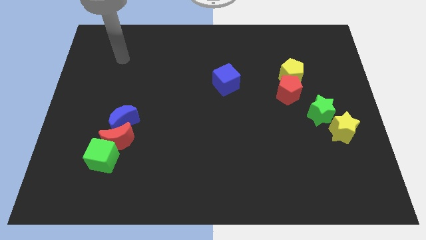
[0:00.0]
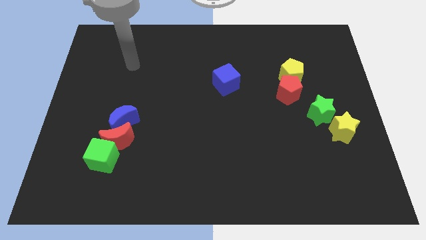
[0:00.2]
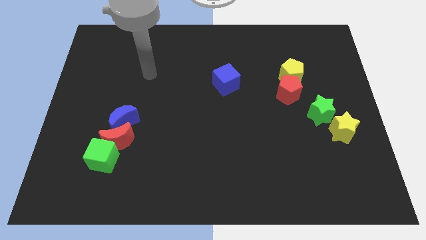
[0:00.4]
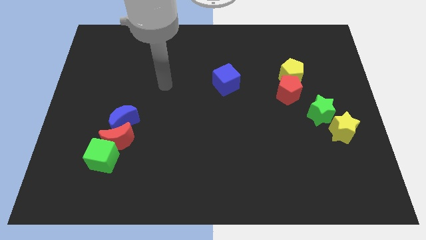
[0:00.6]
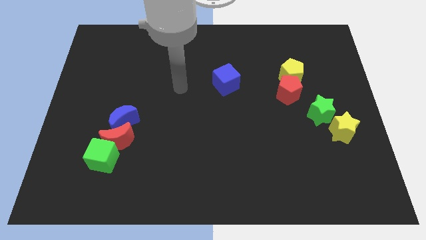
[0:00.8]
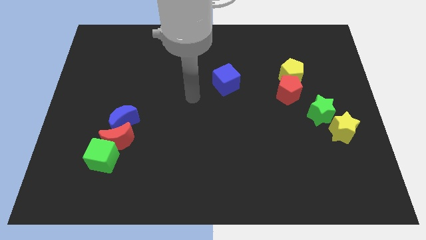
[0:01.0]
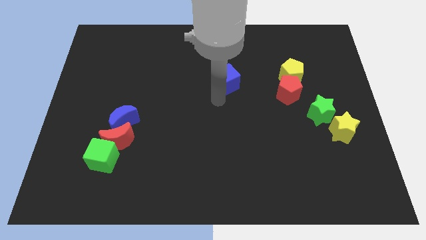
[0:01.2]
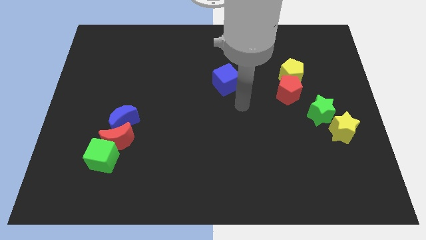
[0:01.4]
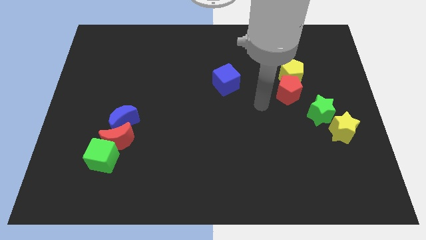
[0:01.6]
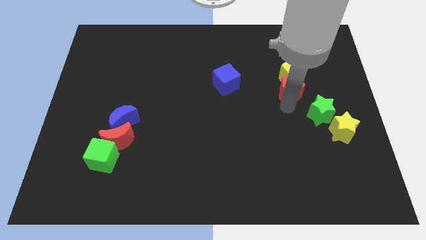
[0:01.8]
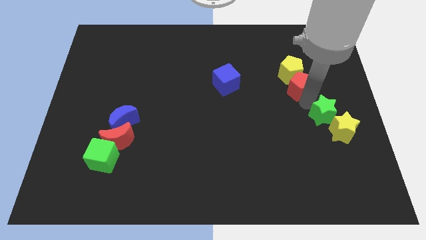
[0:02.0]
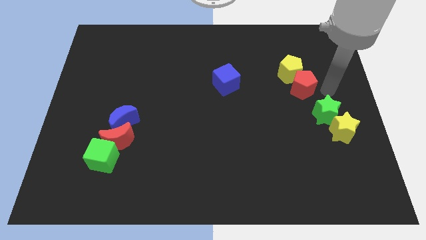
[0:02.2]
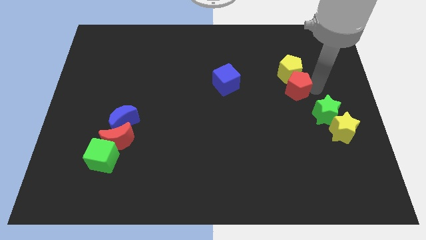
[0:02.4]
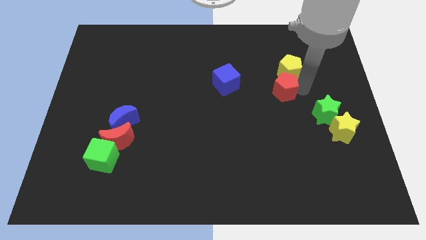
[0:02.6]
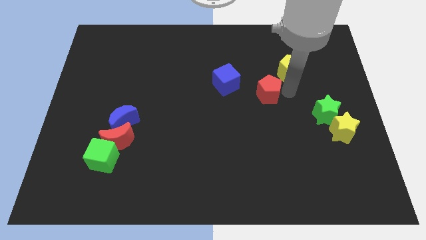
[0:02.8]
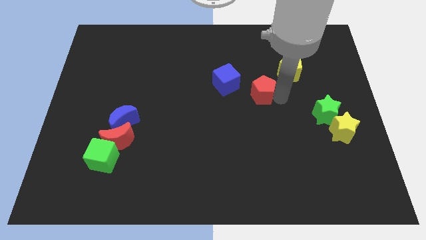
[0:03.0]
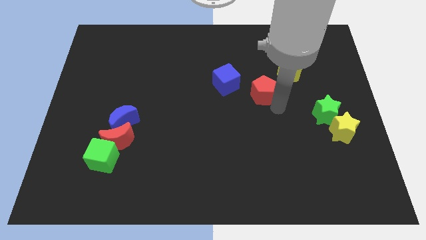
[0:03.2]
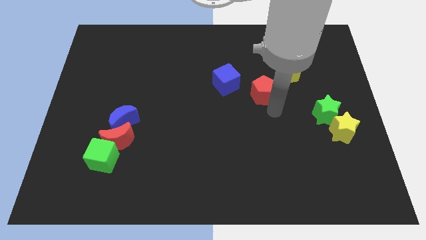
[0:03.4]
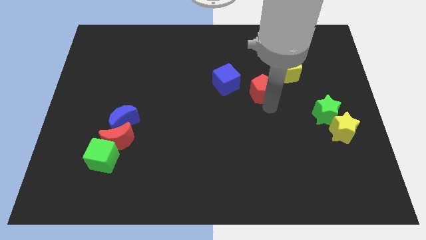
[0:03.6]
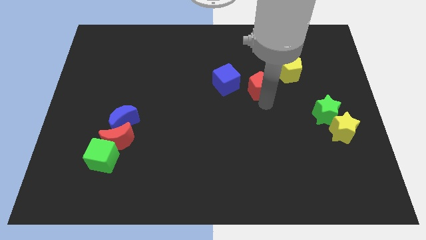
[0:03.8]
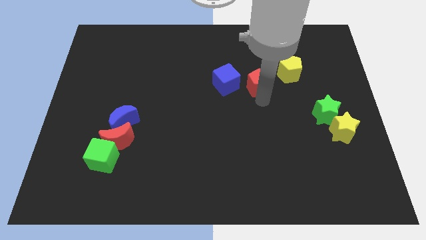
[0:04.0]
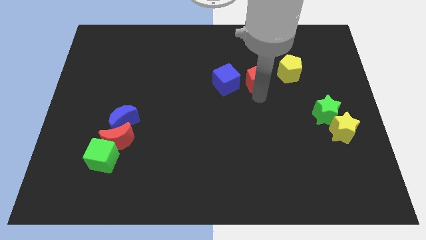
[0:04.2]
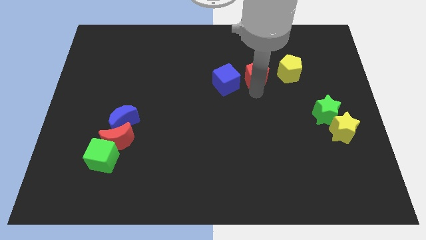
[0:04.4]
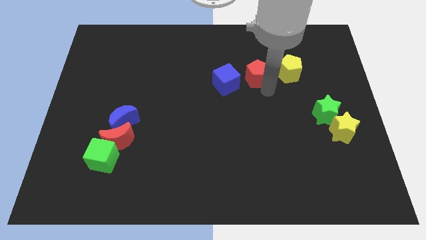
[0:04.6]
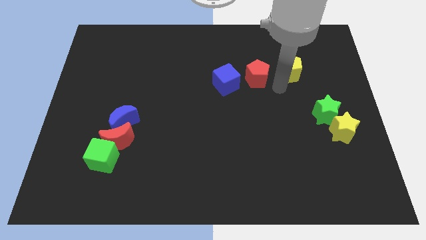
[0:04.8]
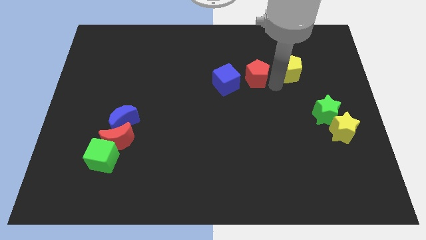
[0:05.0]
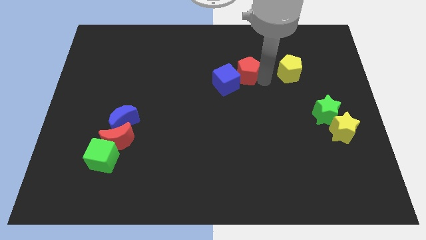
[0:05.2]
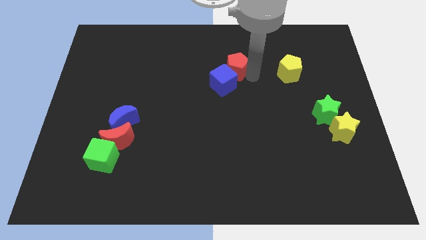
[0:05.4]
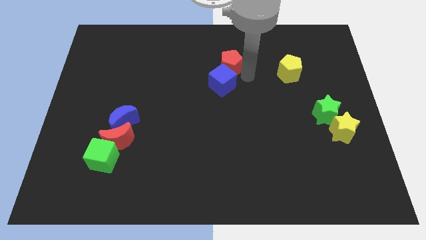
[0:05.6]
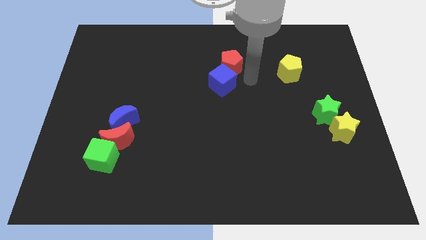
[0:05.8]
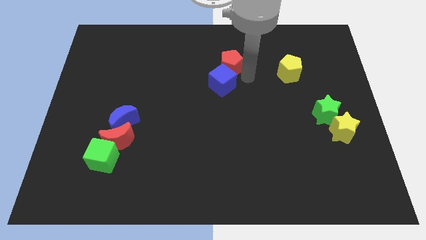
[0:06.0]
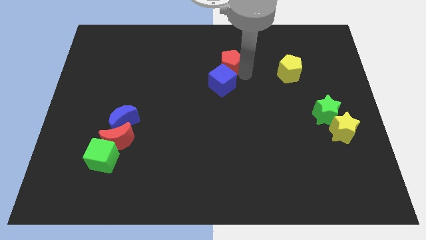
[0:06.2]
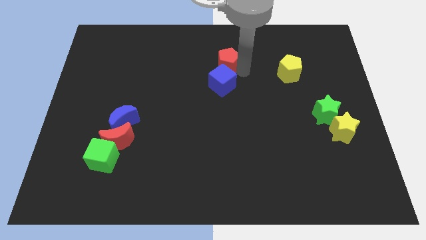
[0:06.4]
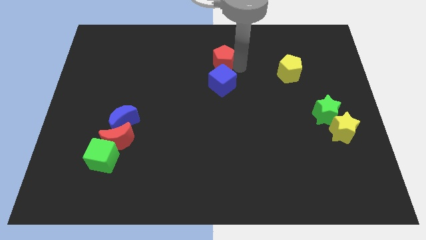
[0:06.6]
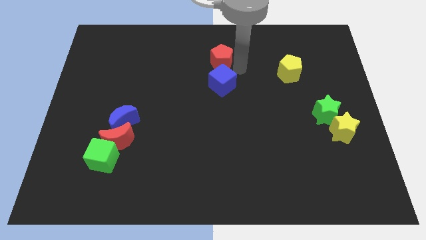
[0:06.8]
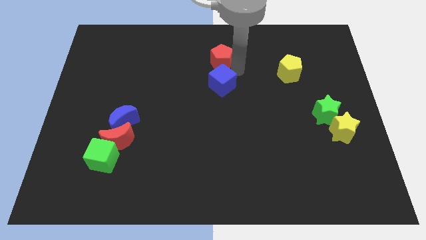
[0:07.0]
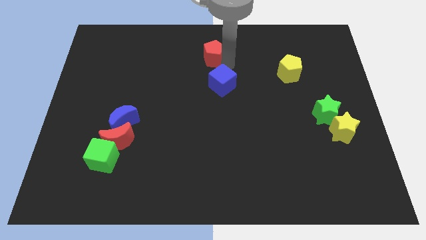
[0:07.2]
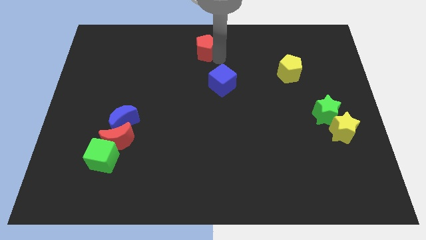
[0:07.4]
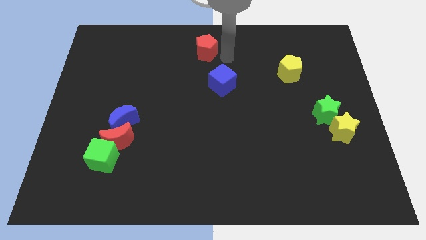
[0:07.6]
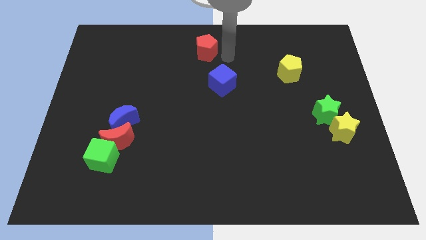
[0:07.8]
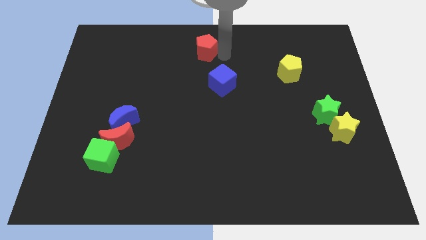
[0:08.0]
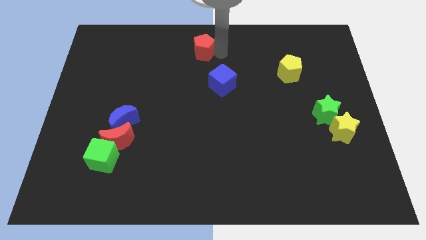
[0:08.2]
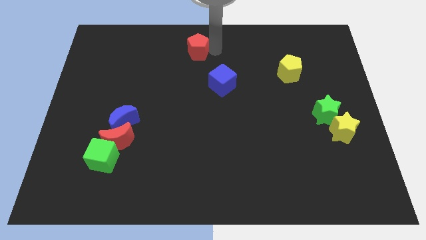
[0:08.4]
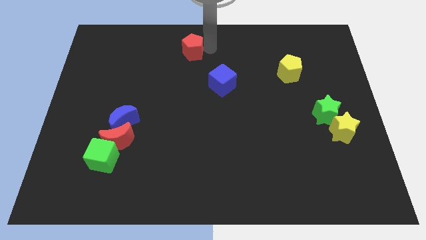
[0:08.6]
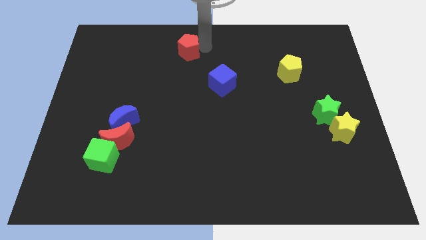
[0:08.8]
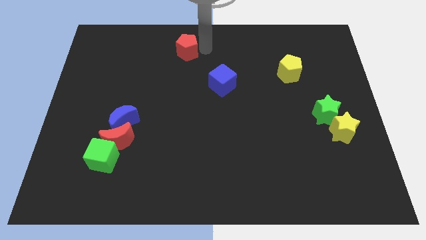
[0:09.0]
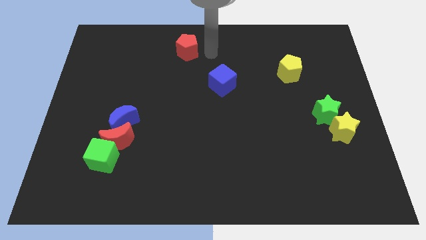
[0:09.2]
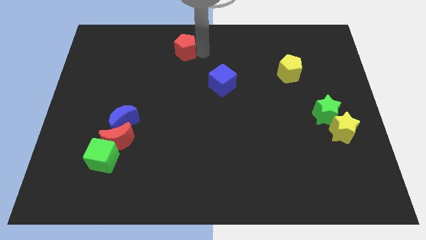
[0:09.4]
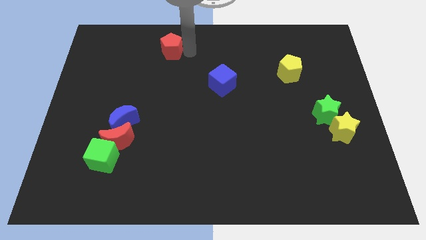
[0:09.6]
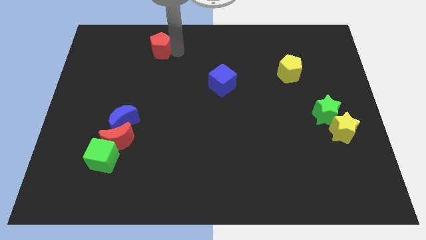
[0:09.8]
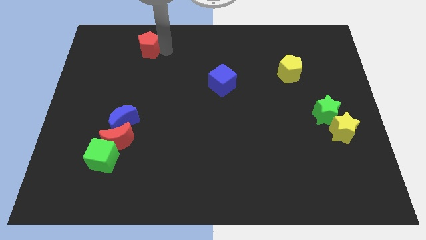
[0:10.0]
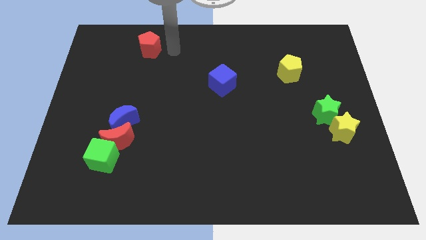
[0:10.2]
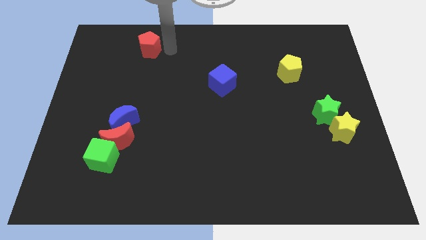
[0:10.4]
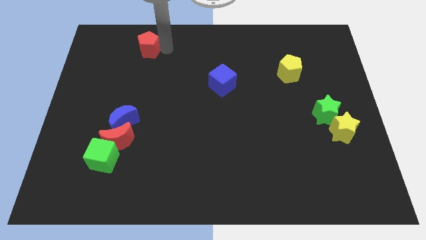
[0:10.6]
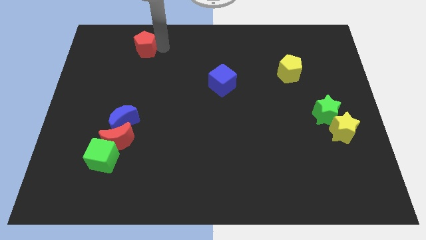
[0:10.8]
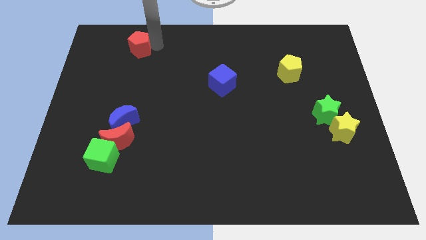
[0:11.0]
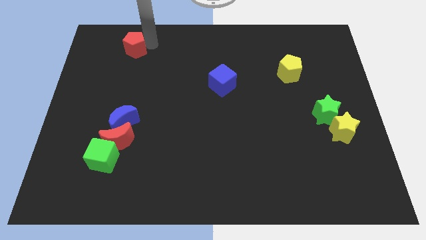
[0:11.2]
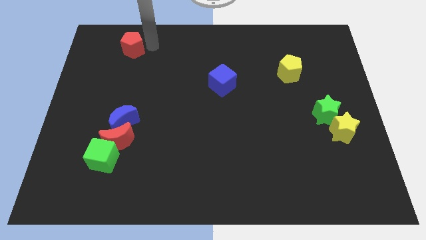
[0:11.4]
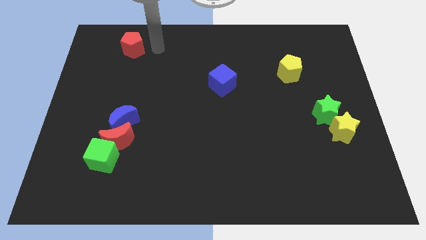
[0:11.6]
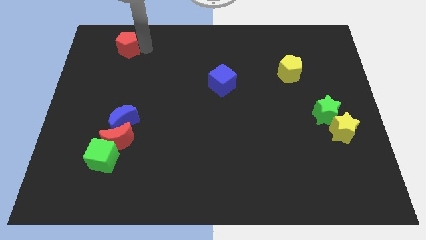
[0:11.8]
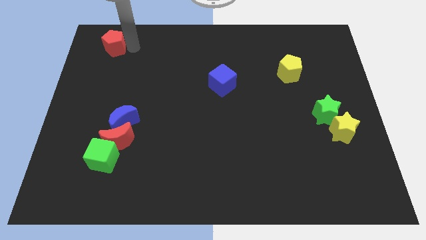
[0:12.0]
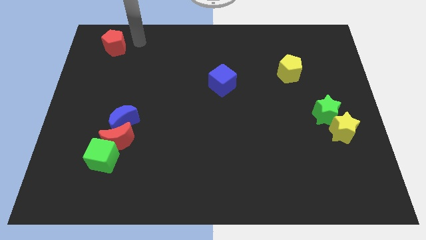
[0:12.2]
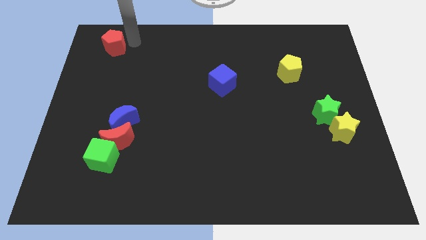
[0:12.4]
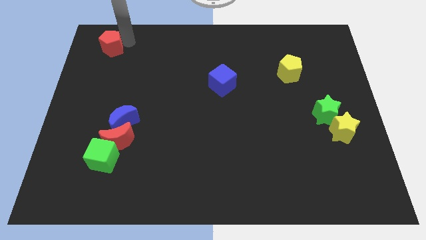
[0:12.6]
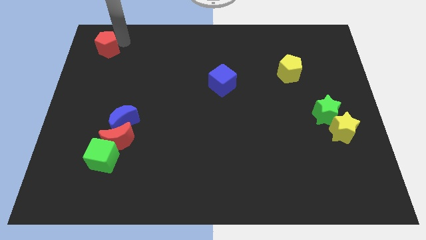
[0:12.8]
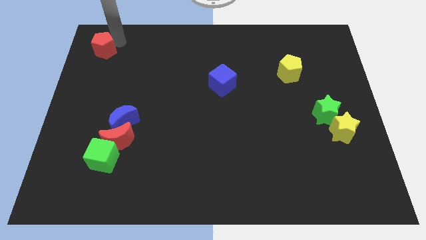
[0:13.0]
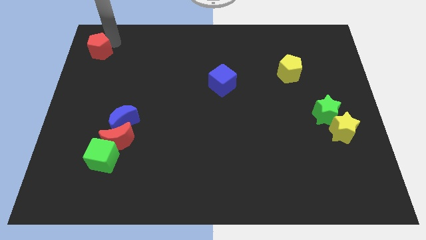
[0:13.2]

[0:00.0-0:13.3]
move the red pentagon to the top left of the board
